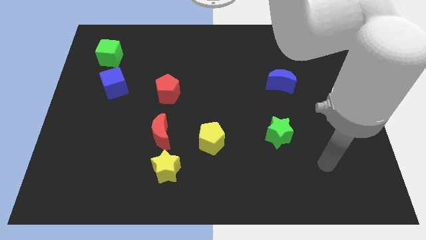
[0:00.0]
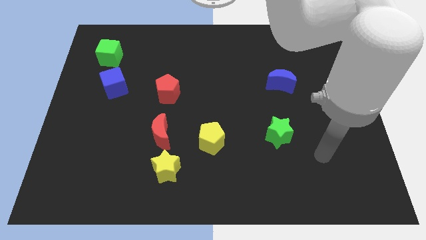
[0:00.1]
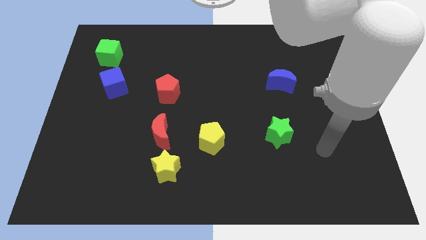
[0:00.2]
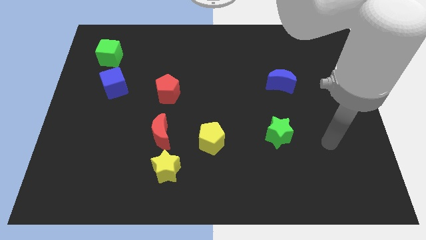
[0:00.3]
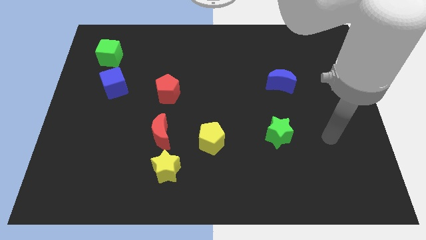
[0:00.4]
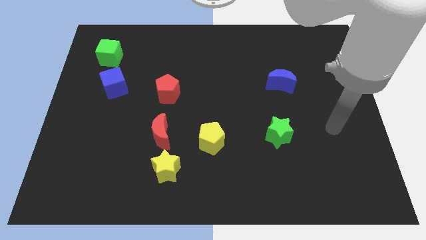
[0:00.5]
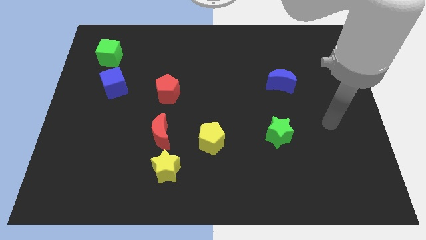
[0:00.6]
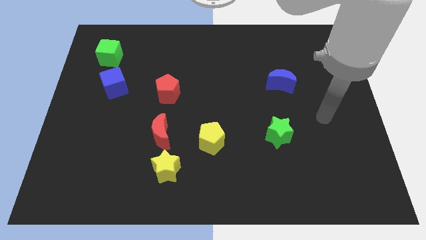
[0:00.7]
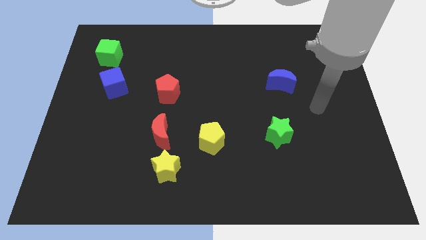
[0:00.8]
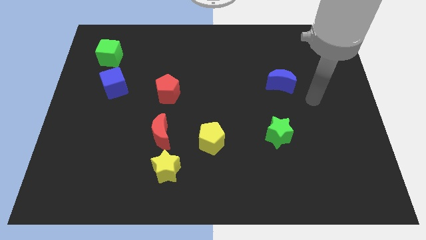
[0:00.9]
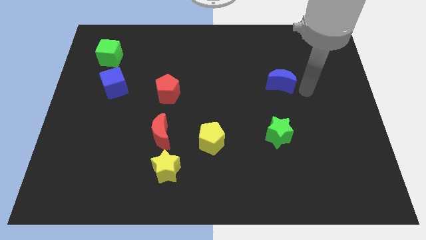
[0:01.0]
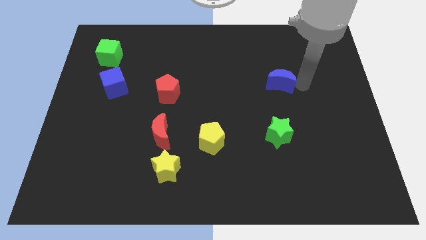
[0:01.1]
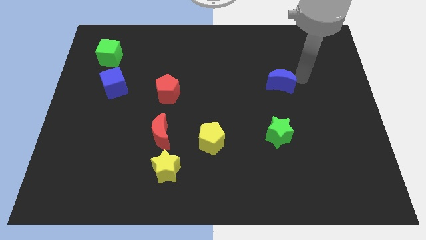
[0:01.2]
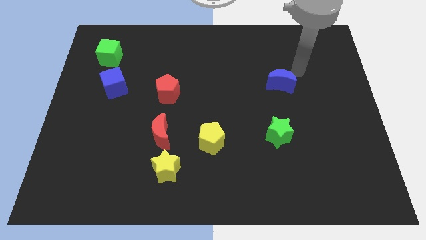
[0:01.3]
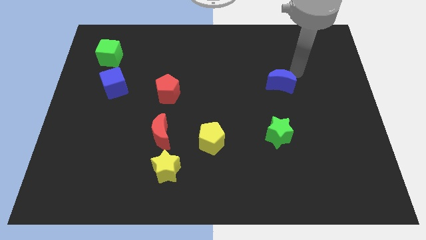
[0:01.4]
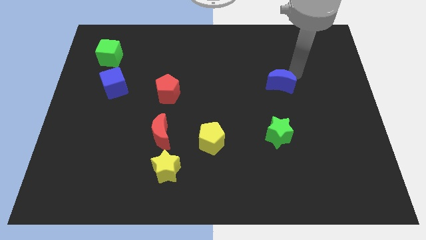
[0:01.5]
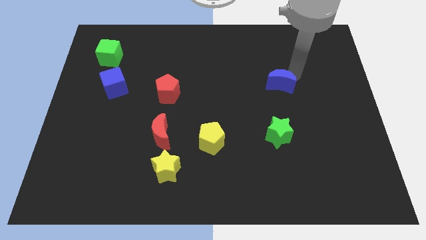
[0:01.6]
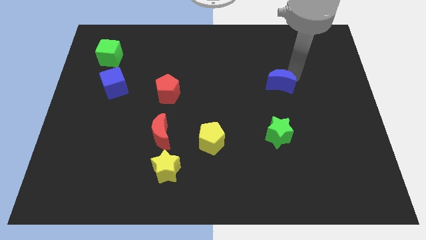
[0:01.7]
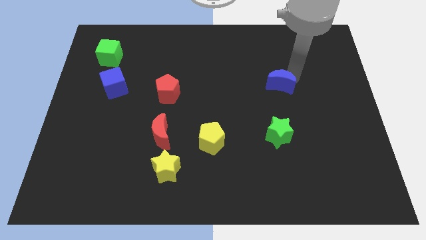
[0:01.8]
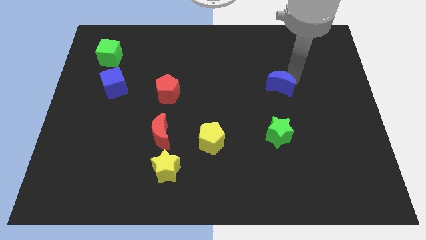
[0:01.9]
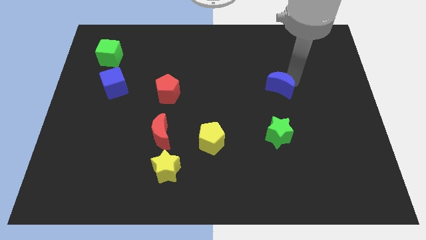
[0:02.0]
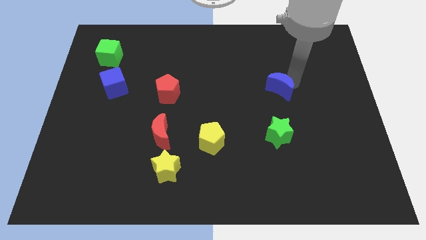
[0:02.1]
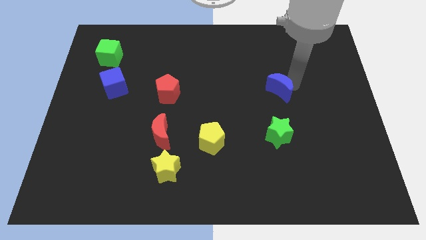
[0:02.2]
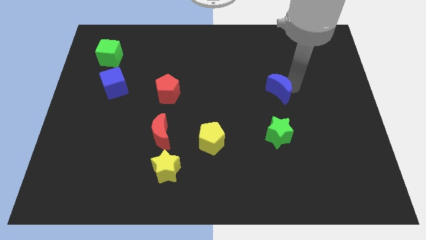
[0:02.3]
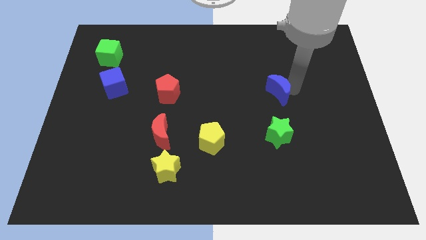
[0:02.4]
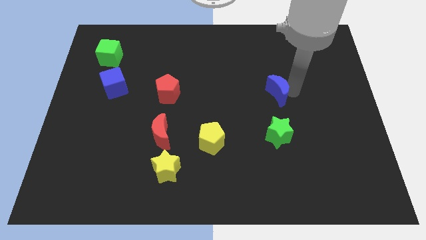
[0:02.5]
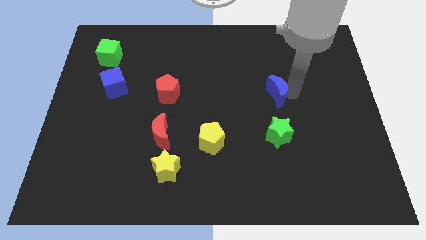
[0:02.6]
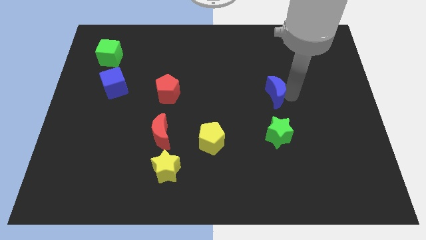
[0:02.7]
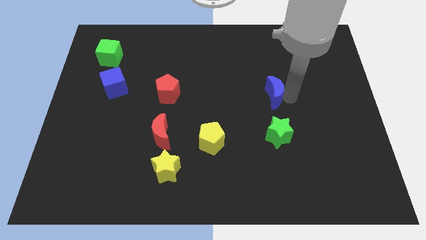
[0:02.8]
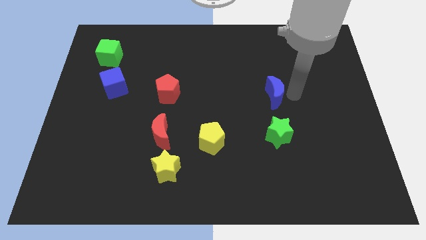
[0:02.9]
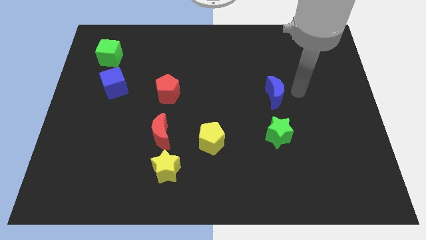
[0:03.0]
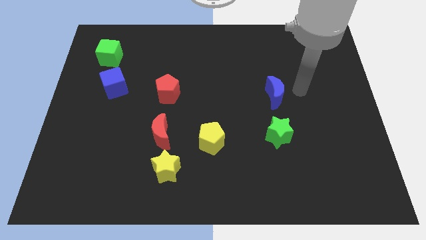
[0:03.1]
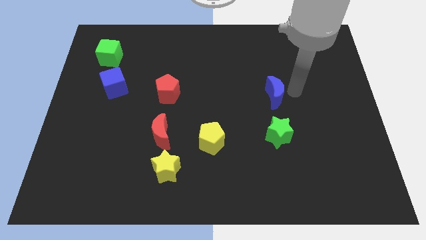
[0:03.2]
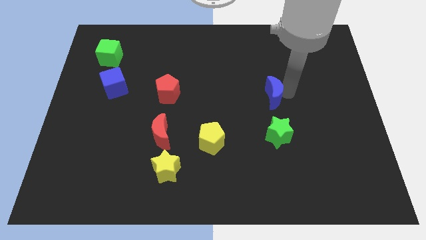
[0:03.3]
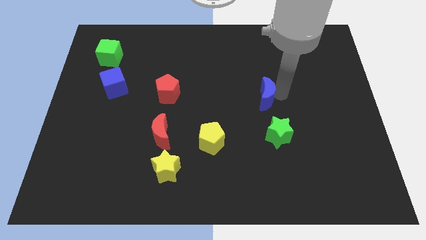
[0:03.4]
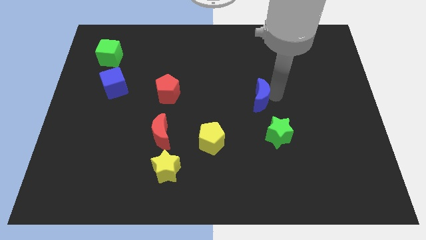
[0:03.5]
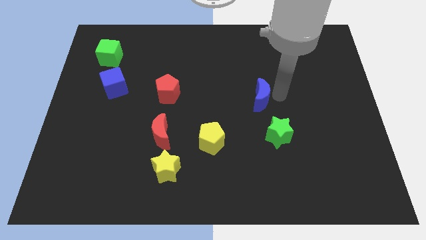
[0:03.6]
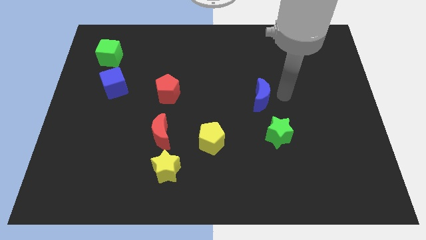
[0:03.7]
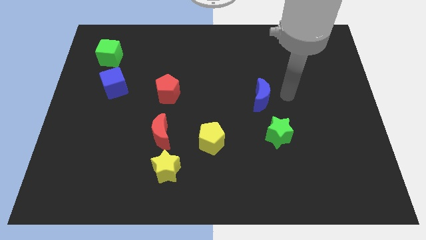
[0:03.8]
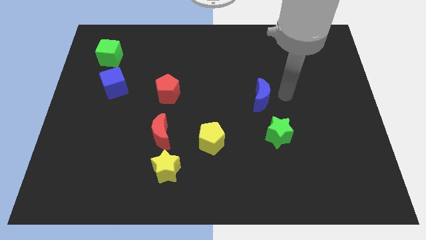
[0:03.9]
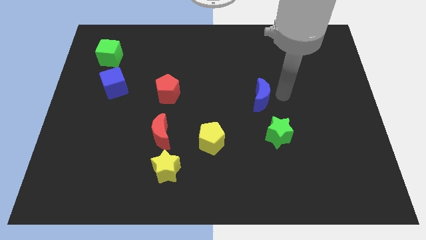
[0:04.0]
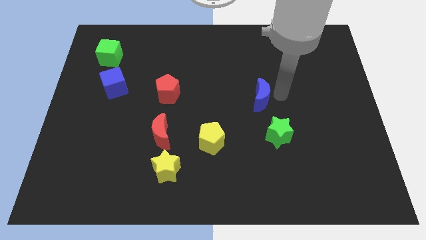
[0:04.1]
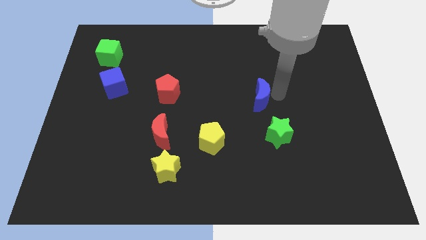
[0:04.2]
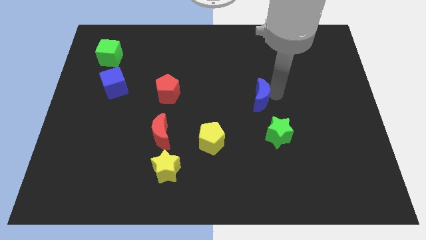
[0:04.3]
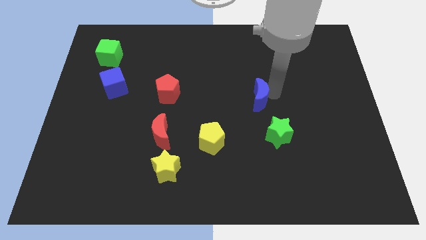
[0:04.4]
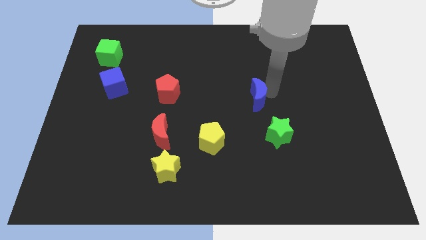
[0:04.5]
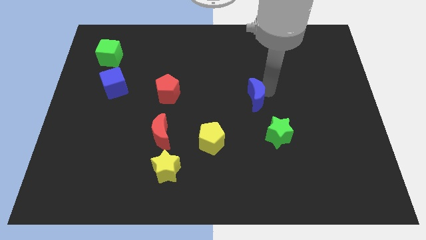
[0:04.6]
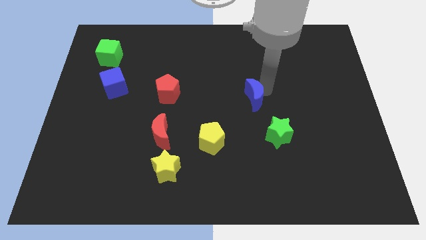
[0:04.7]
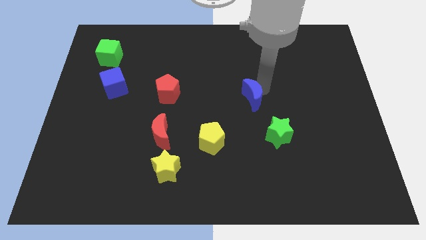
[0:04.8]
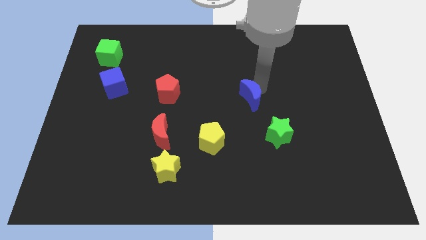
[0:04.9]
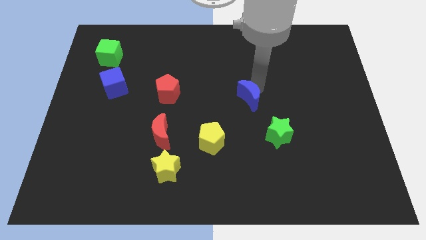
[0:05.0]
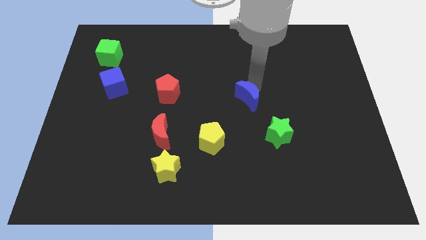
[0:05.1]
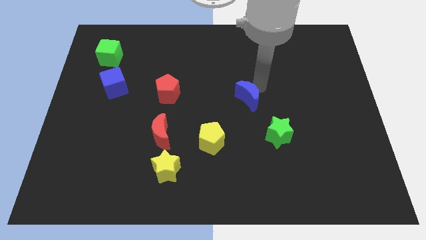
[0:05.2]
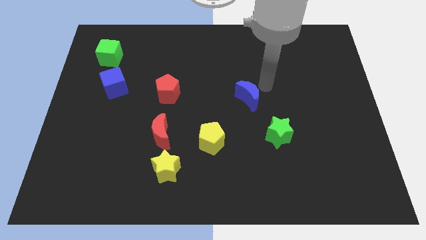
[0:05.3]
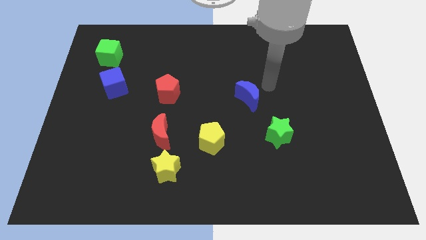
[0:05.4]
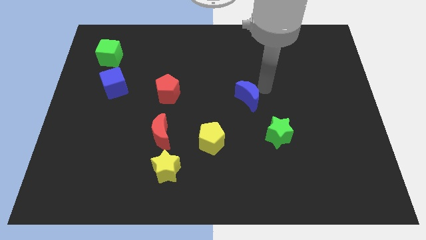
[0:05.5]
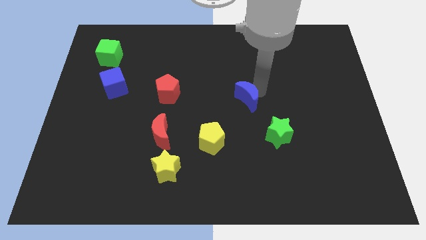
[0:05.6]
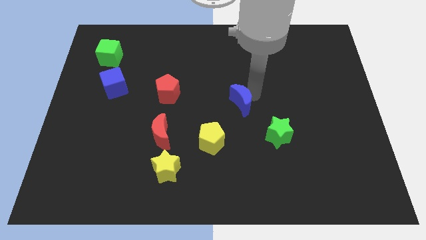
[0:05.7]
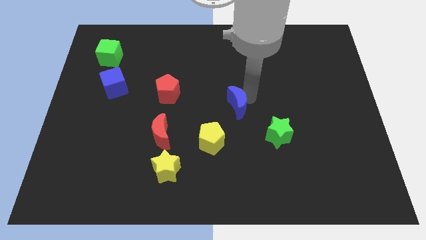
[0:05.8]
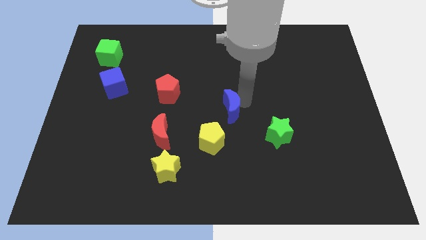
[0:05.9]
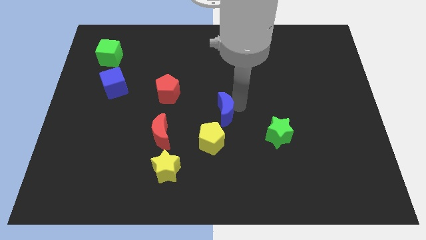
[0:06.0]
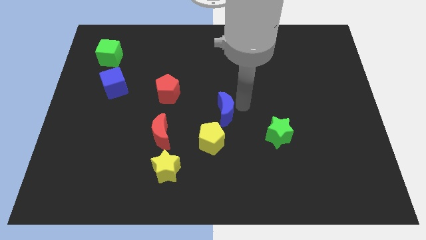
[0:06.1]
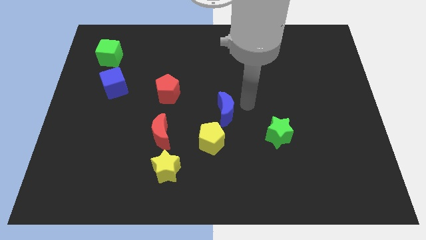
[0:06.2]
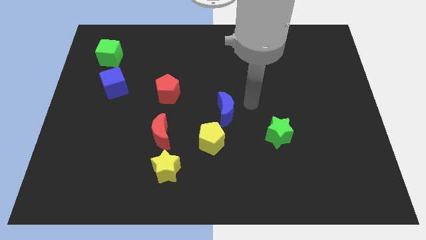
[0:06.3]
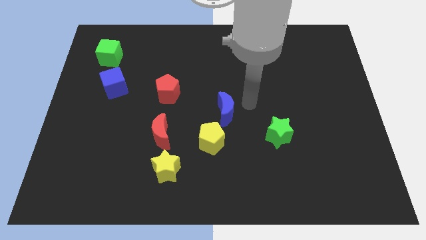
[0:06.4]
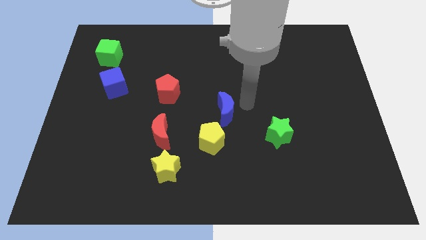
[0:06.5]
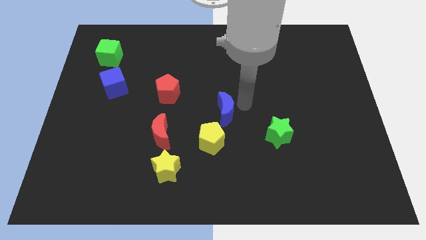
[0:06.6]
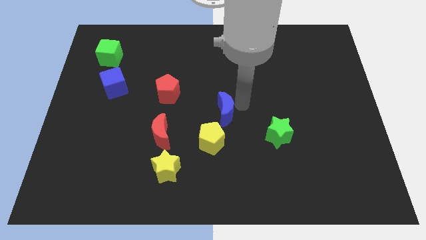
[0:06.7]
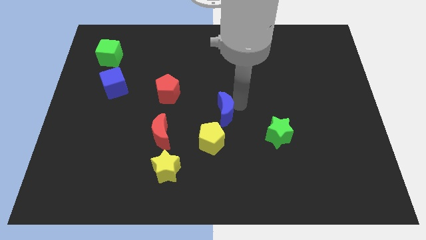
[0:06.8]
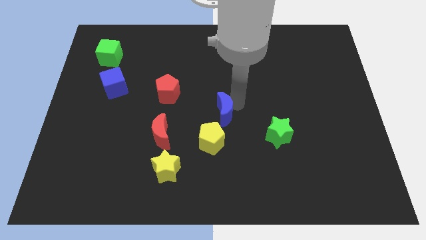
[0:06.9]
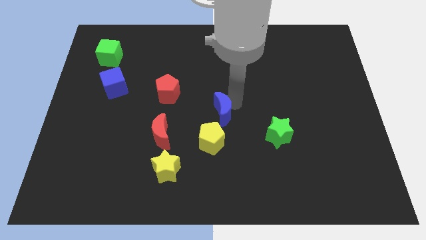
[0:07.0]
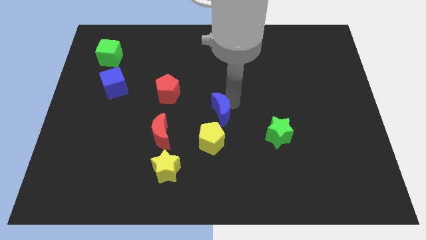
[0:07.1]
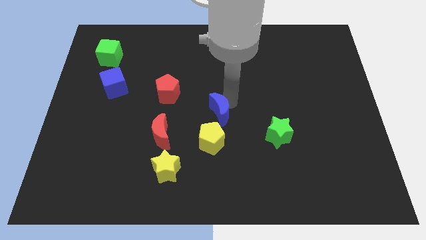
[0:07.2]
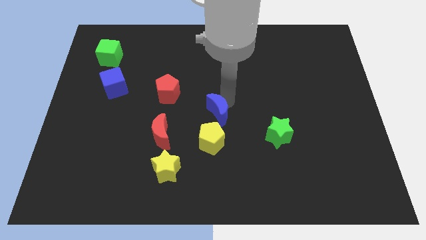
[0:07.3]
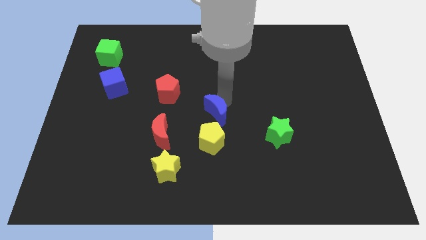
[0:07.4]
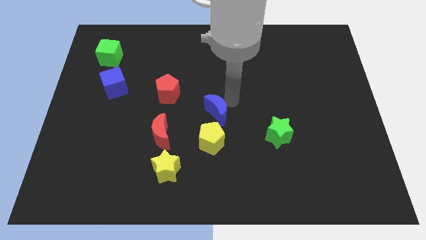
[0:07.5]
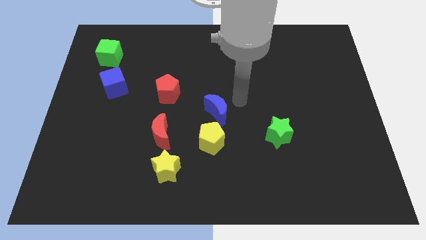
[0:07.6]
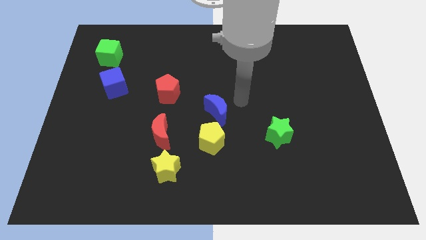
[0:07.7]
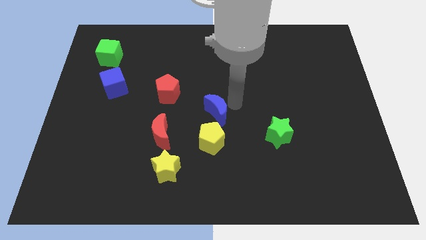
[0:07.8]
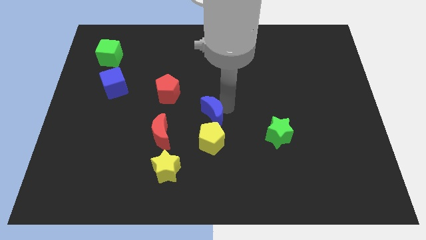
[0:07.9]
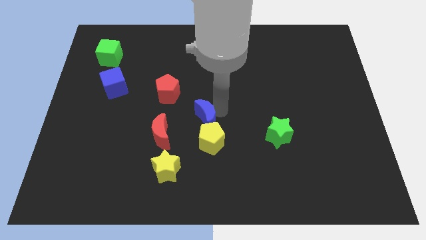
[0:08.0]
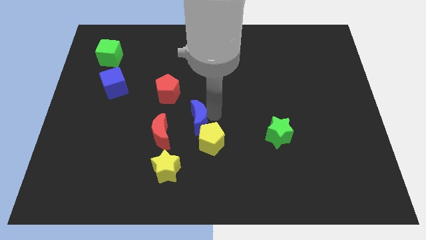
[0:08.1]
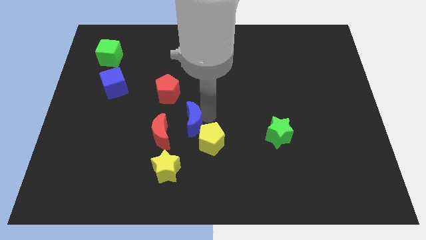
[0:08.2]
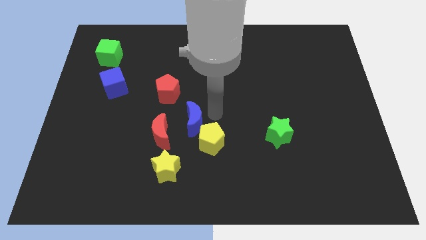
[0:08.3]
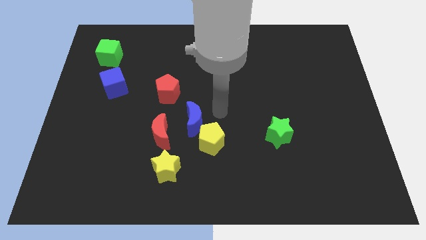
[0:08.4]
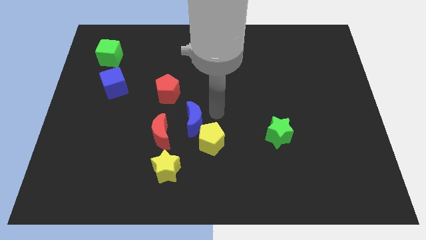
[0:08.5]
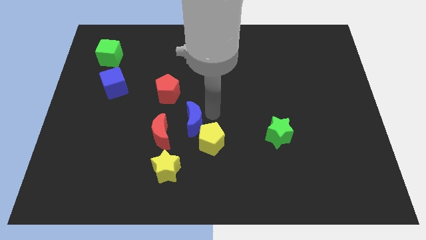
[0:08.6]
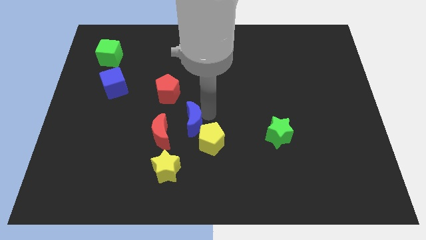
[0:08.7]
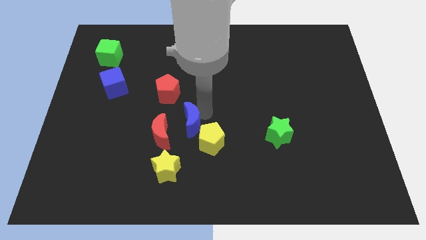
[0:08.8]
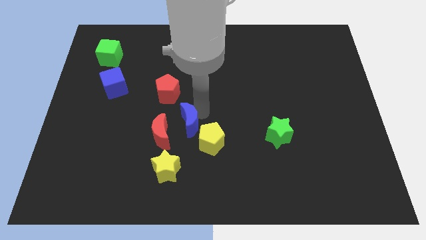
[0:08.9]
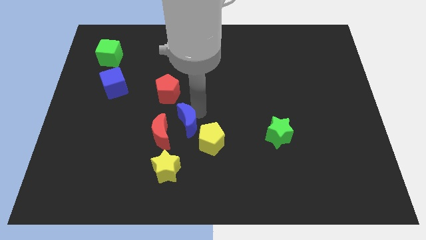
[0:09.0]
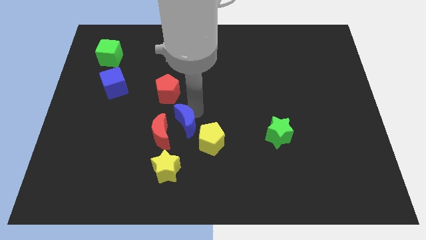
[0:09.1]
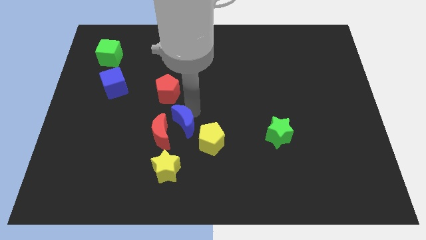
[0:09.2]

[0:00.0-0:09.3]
move the blue moon towards the red moon
